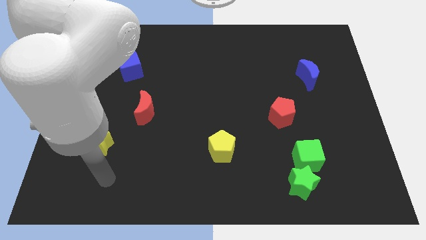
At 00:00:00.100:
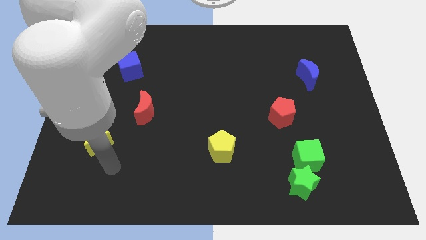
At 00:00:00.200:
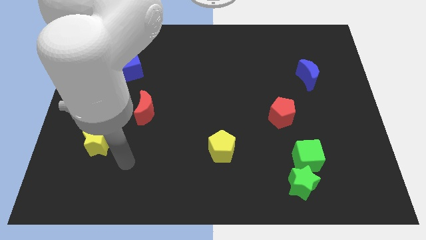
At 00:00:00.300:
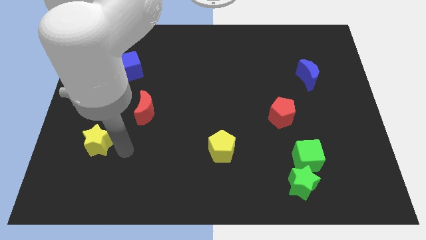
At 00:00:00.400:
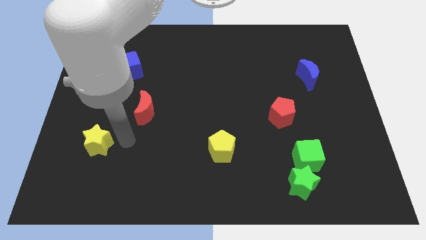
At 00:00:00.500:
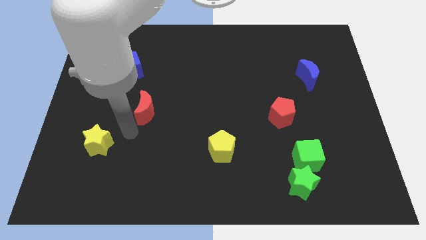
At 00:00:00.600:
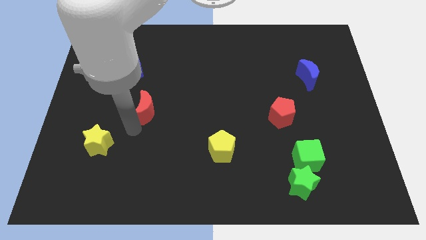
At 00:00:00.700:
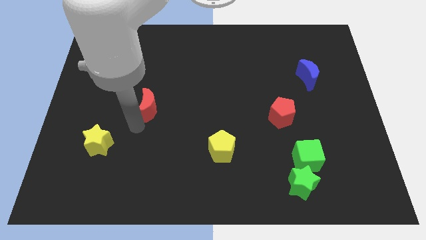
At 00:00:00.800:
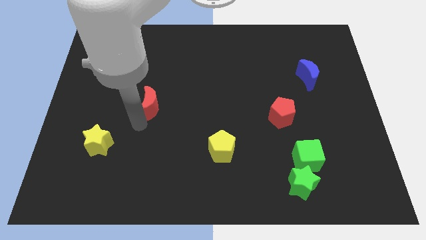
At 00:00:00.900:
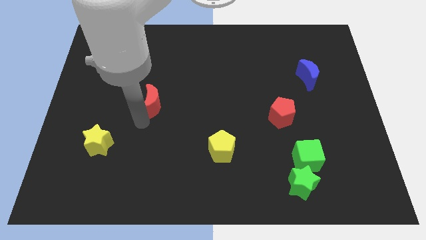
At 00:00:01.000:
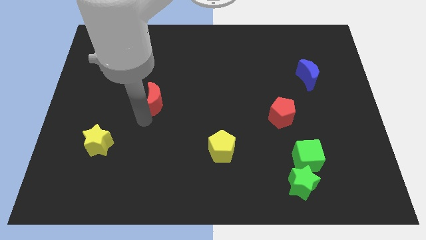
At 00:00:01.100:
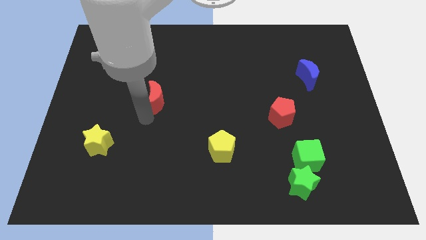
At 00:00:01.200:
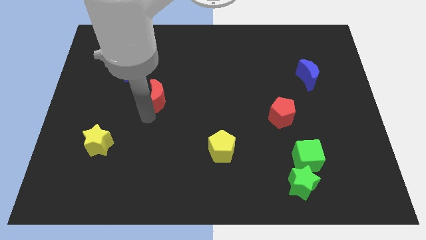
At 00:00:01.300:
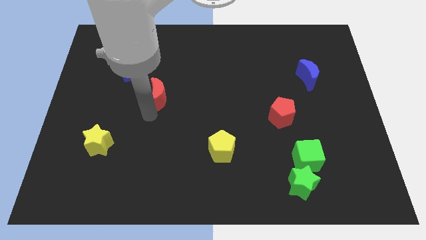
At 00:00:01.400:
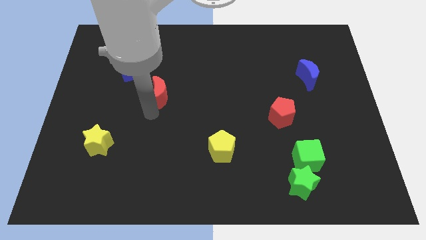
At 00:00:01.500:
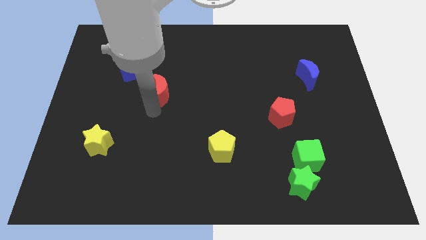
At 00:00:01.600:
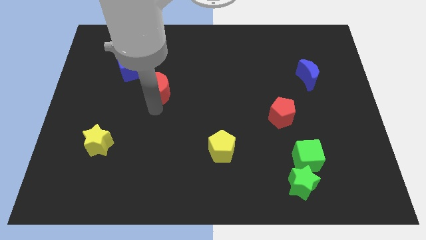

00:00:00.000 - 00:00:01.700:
slightly move the red moon upwards and then to the right

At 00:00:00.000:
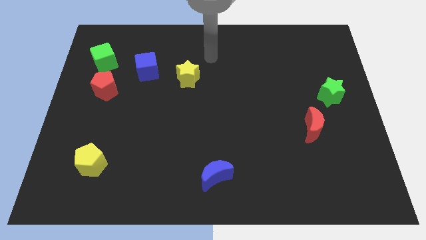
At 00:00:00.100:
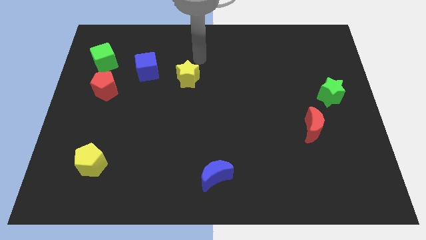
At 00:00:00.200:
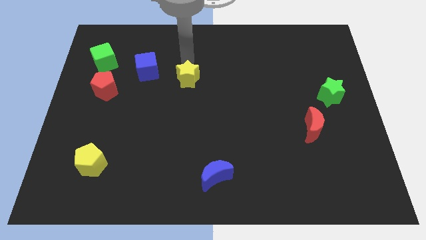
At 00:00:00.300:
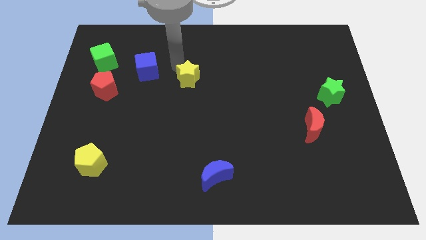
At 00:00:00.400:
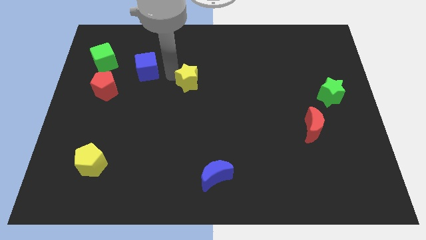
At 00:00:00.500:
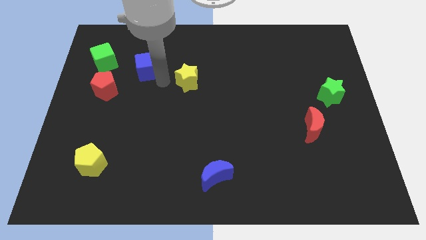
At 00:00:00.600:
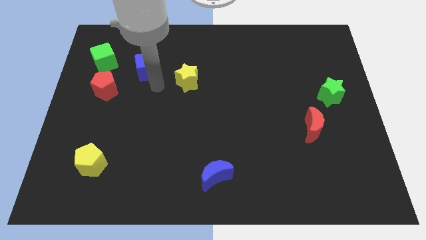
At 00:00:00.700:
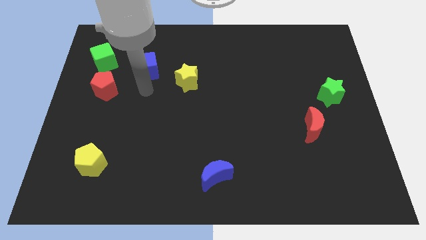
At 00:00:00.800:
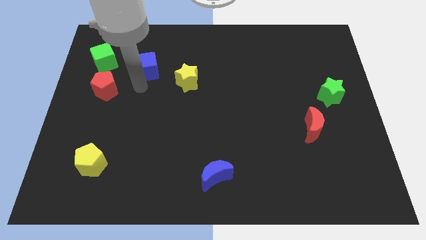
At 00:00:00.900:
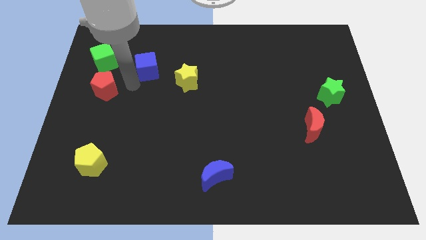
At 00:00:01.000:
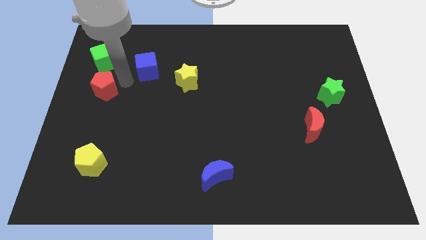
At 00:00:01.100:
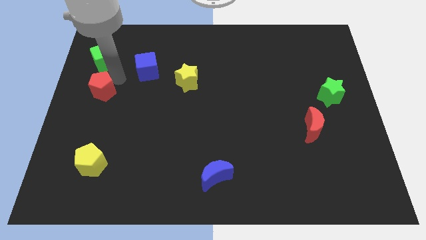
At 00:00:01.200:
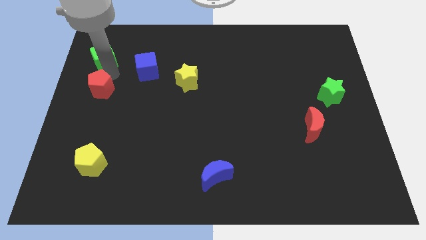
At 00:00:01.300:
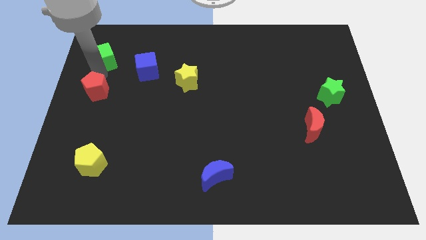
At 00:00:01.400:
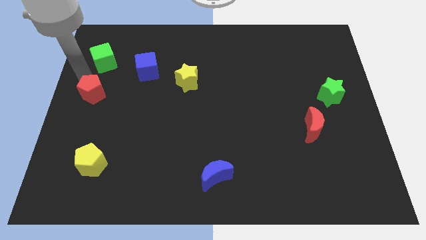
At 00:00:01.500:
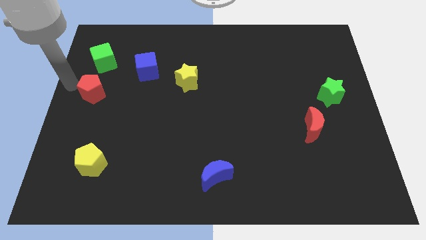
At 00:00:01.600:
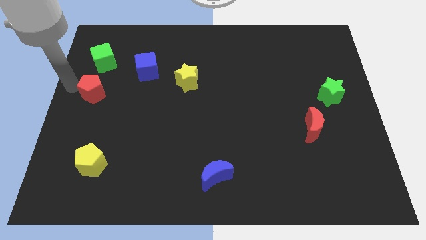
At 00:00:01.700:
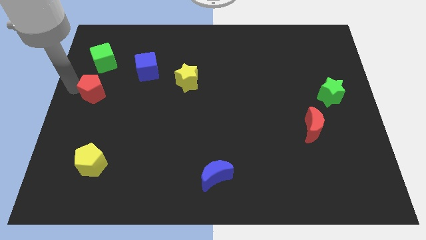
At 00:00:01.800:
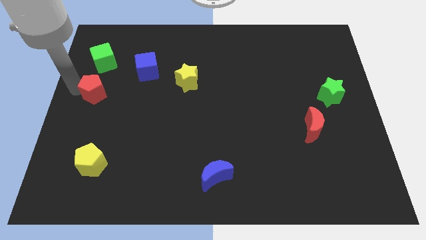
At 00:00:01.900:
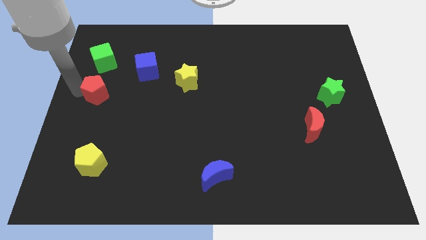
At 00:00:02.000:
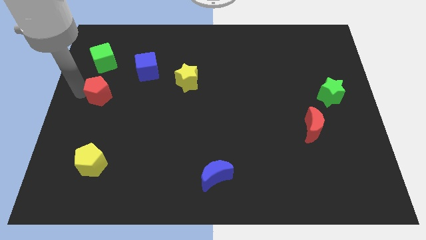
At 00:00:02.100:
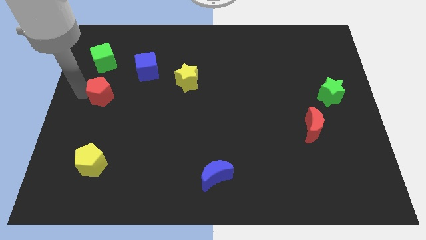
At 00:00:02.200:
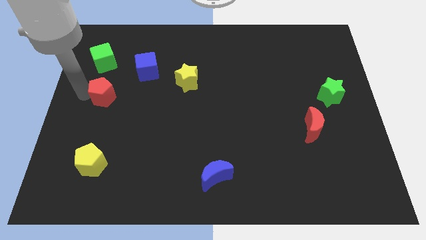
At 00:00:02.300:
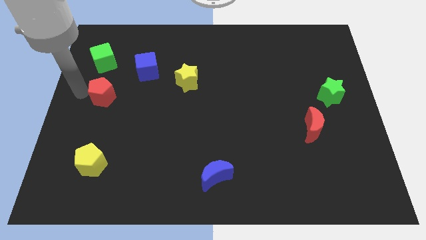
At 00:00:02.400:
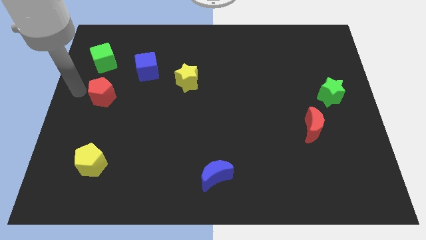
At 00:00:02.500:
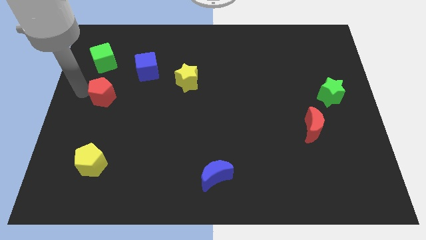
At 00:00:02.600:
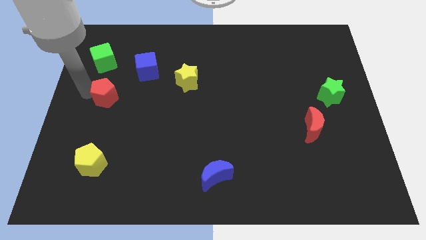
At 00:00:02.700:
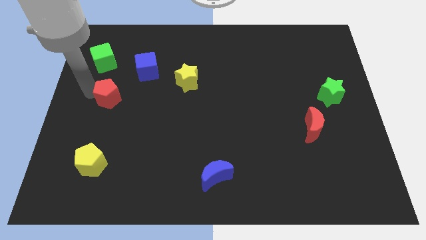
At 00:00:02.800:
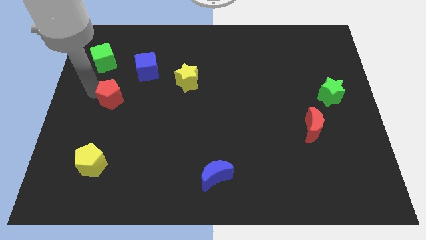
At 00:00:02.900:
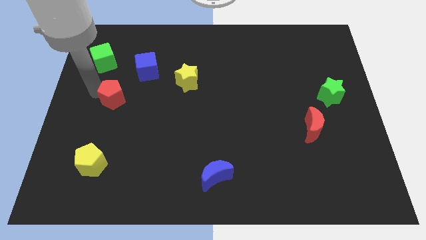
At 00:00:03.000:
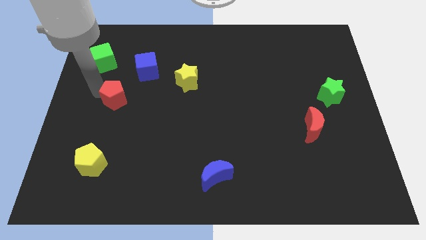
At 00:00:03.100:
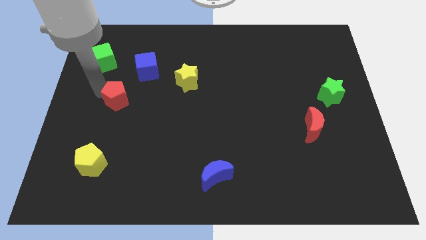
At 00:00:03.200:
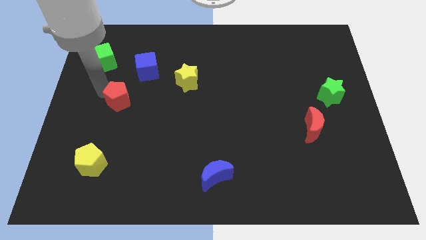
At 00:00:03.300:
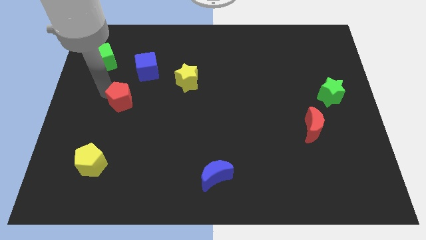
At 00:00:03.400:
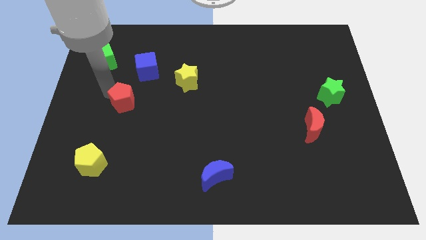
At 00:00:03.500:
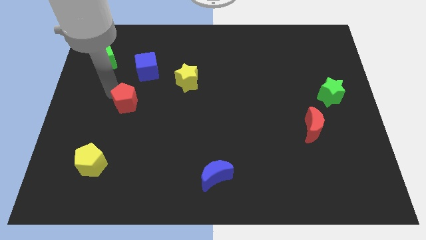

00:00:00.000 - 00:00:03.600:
move the red pentagon slightly downwards and right

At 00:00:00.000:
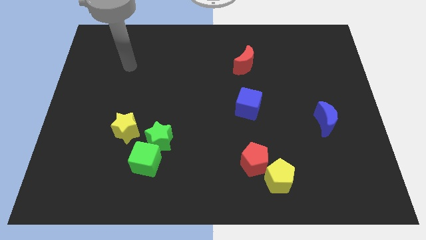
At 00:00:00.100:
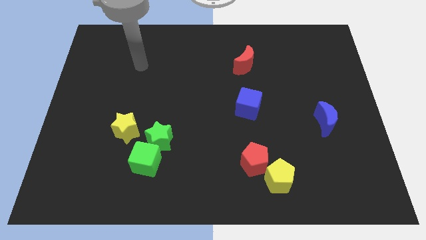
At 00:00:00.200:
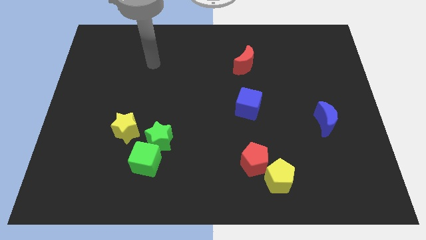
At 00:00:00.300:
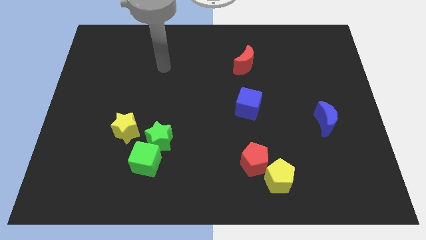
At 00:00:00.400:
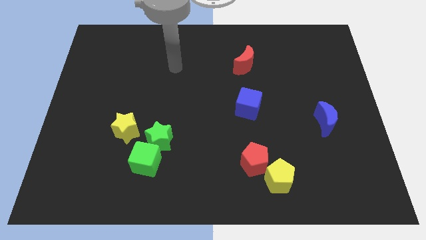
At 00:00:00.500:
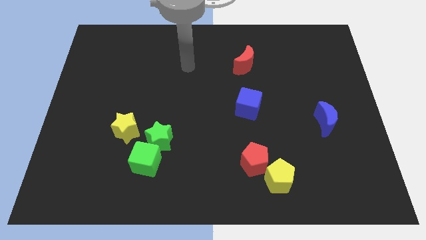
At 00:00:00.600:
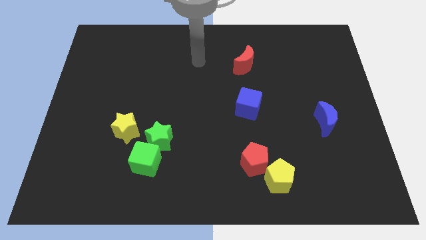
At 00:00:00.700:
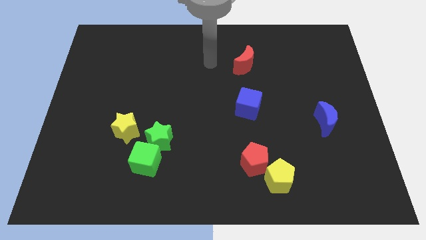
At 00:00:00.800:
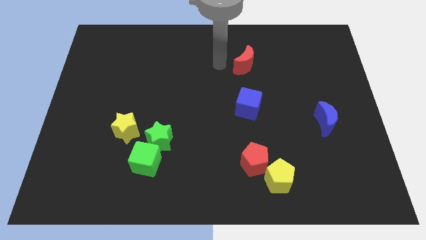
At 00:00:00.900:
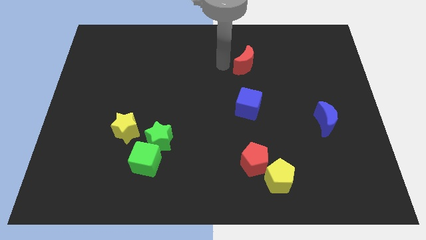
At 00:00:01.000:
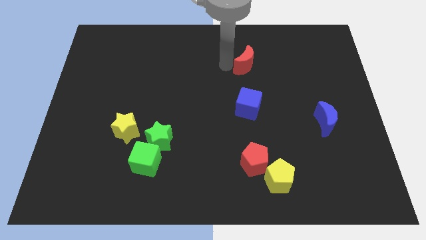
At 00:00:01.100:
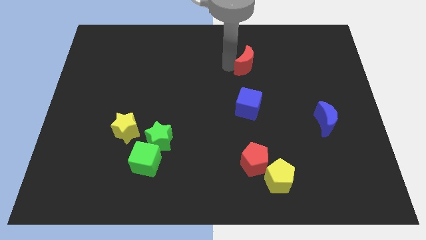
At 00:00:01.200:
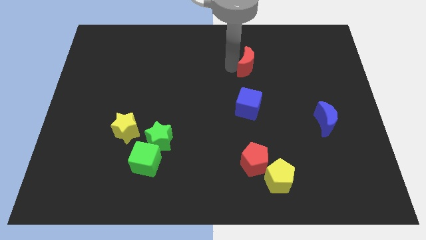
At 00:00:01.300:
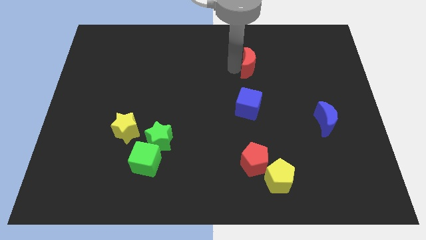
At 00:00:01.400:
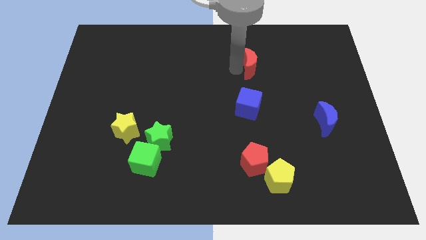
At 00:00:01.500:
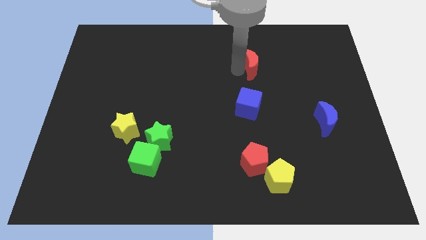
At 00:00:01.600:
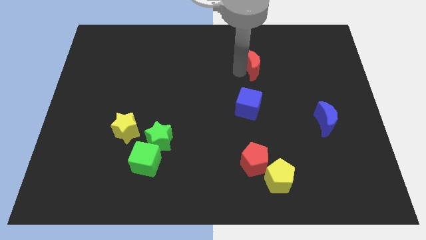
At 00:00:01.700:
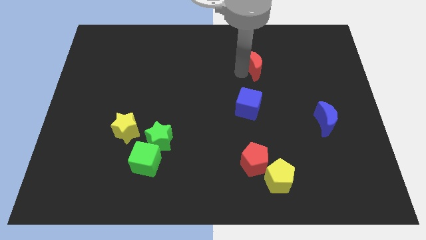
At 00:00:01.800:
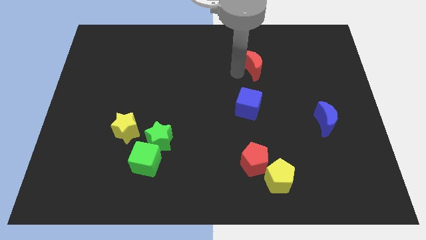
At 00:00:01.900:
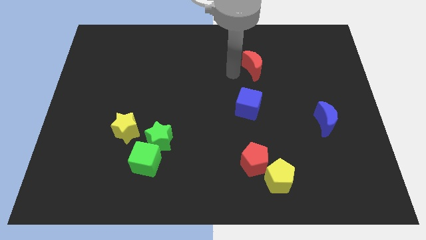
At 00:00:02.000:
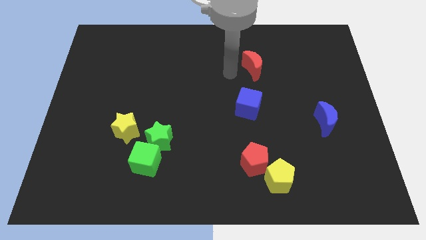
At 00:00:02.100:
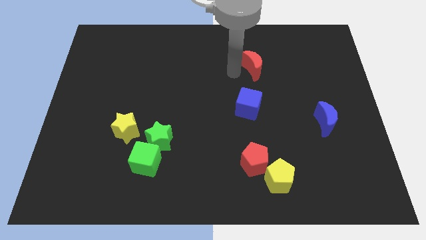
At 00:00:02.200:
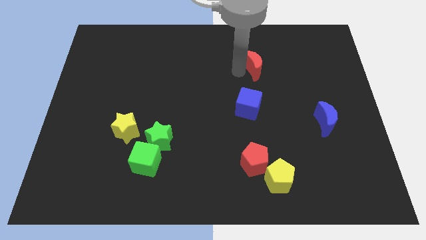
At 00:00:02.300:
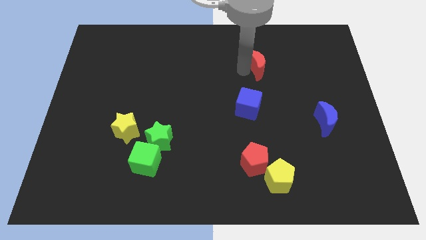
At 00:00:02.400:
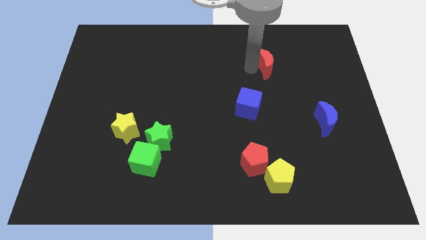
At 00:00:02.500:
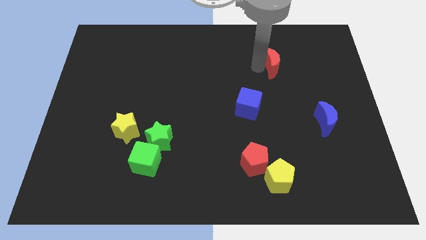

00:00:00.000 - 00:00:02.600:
slide the red moon a little to the right
